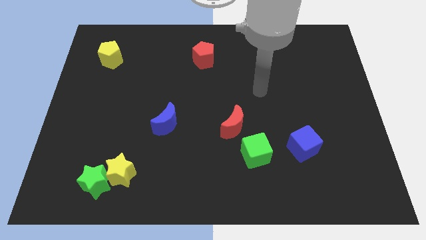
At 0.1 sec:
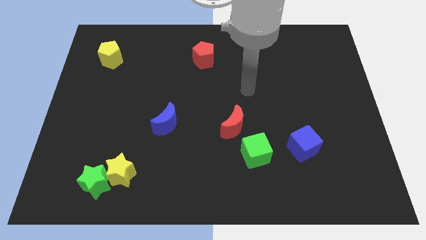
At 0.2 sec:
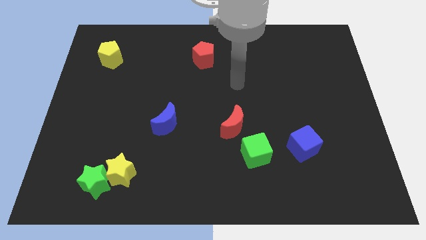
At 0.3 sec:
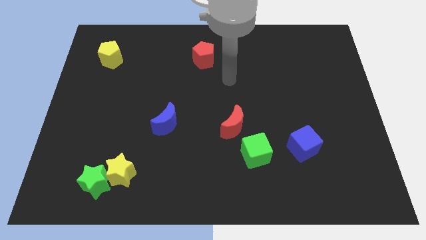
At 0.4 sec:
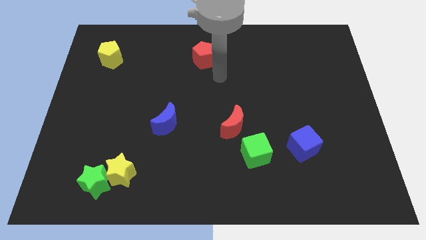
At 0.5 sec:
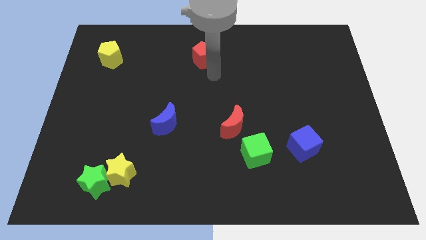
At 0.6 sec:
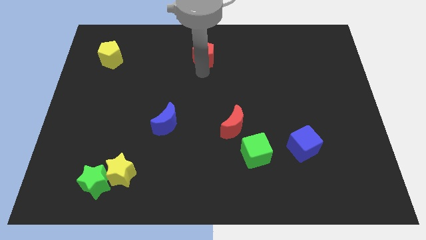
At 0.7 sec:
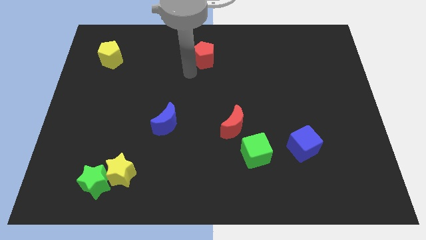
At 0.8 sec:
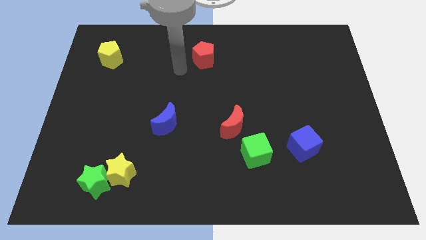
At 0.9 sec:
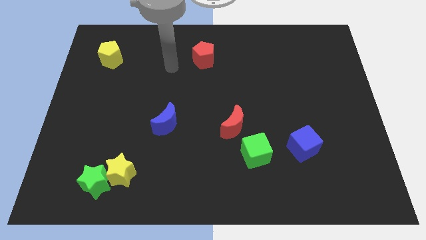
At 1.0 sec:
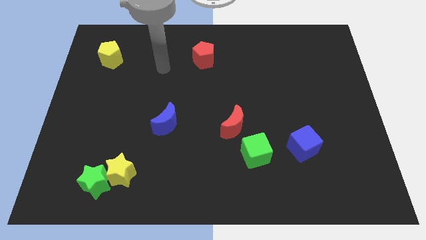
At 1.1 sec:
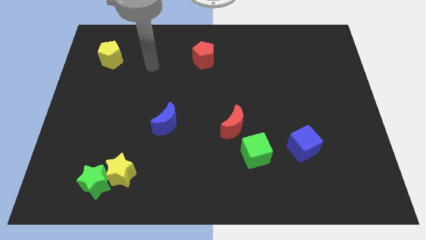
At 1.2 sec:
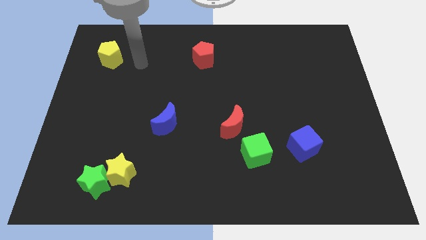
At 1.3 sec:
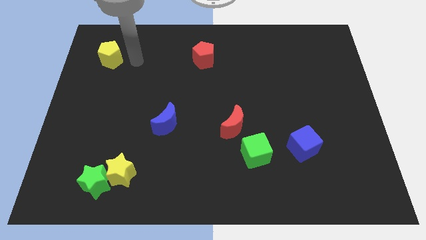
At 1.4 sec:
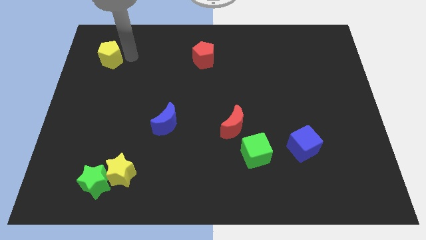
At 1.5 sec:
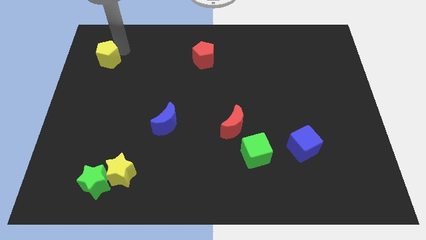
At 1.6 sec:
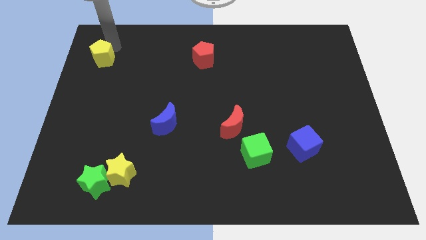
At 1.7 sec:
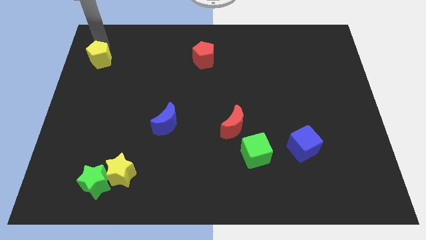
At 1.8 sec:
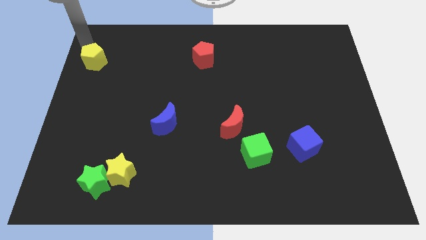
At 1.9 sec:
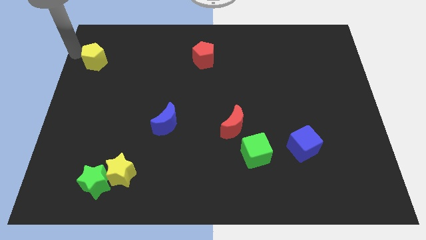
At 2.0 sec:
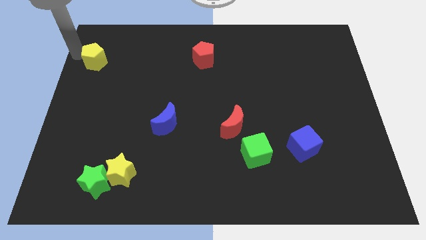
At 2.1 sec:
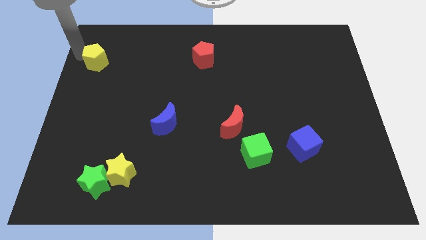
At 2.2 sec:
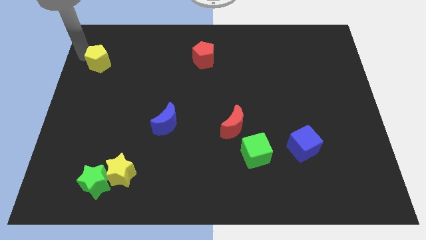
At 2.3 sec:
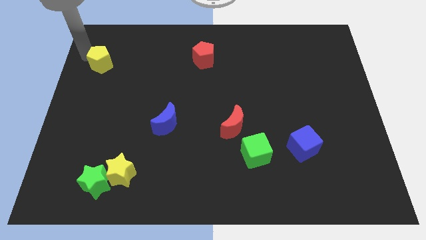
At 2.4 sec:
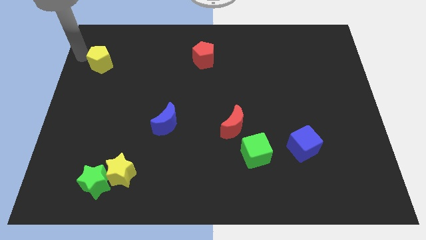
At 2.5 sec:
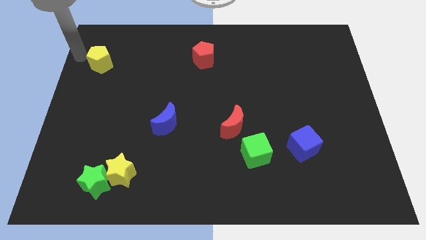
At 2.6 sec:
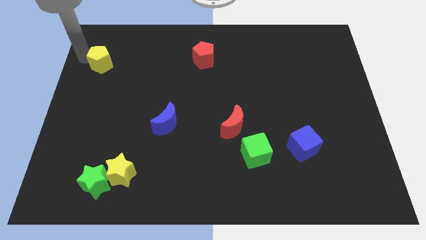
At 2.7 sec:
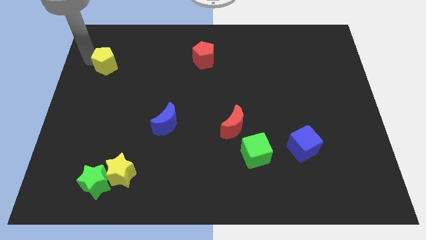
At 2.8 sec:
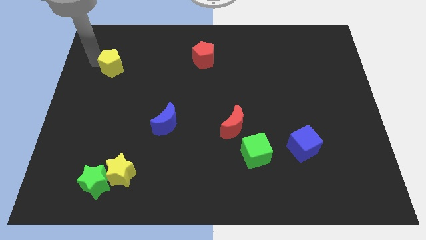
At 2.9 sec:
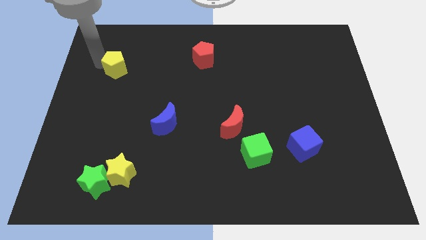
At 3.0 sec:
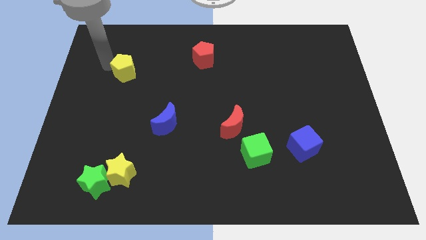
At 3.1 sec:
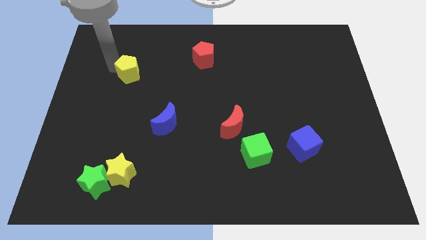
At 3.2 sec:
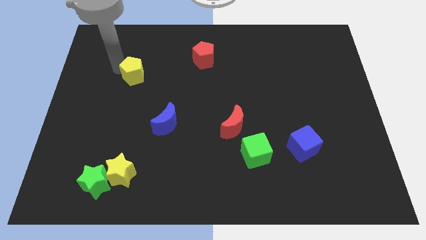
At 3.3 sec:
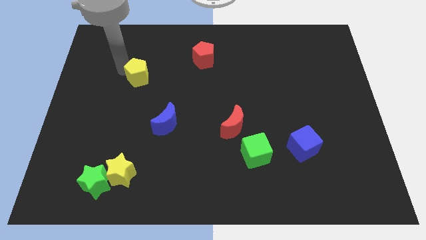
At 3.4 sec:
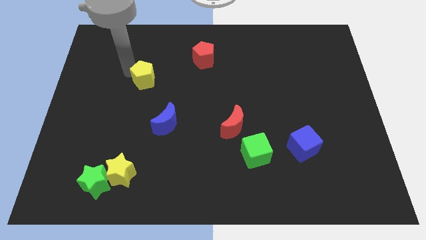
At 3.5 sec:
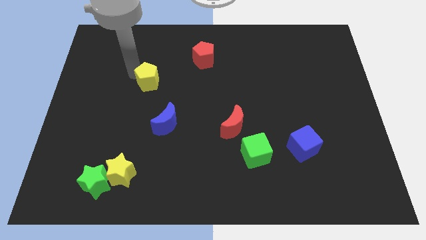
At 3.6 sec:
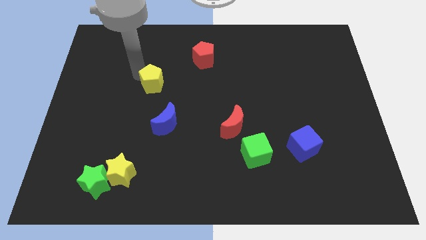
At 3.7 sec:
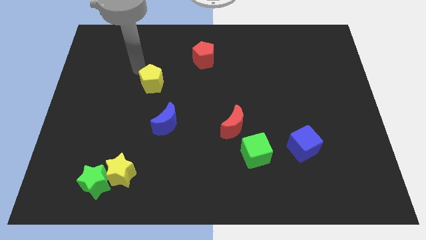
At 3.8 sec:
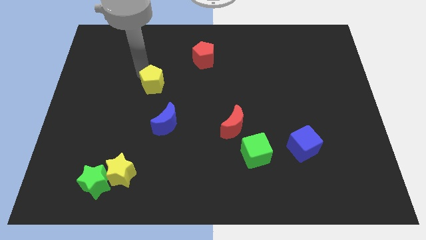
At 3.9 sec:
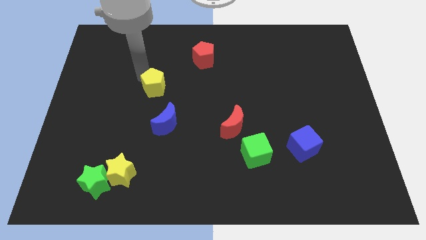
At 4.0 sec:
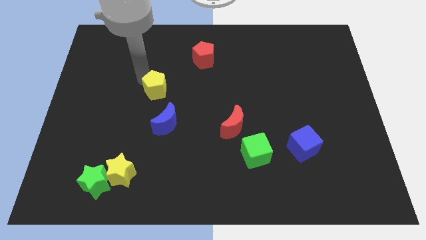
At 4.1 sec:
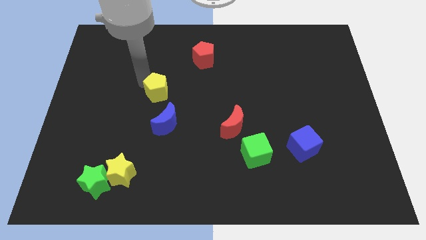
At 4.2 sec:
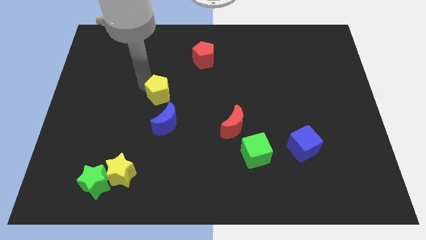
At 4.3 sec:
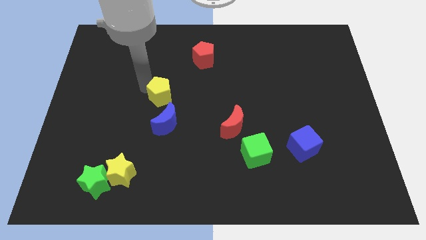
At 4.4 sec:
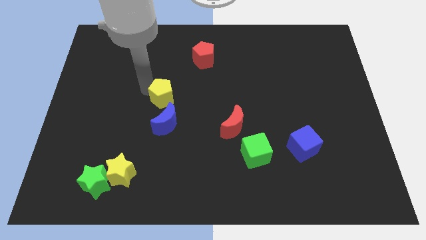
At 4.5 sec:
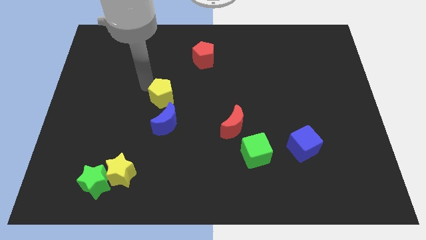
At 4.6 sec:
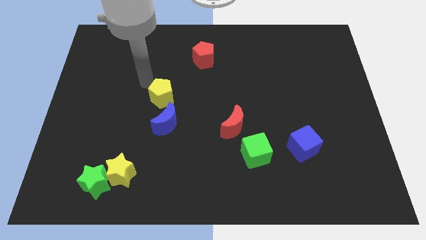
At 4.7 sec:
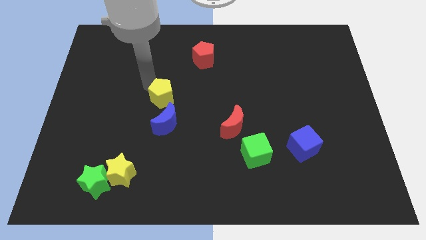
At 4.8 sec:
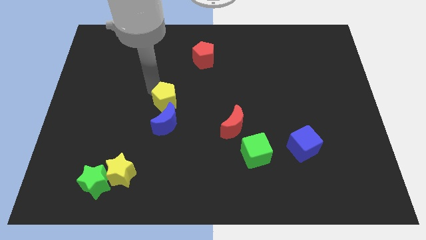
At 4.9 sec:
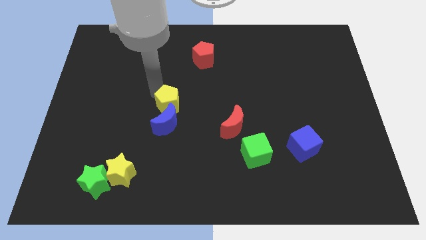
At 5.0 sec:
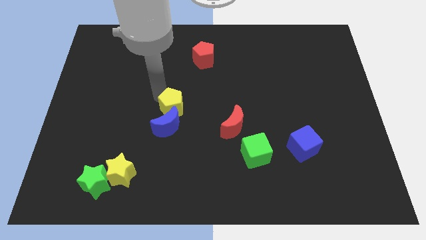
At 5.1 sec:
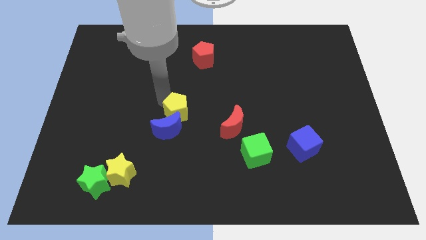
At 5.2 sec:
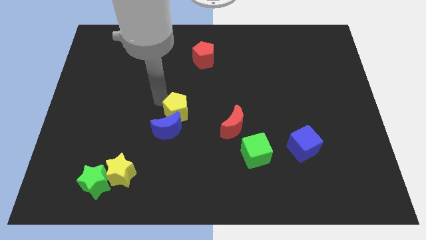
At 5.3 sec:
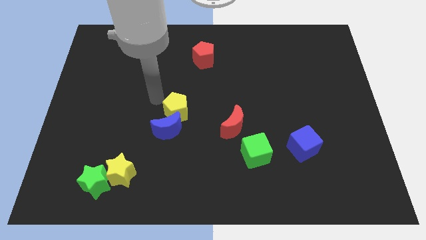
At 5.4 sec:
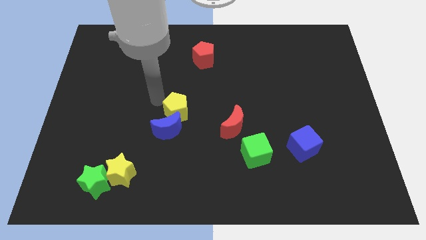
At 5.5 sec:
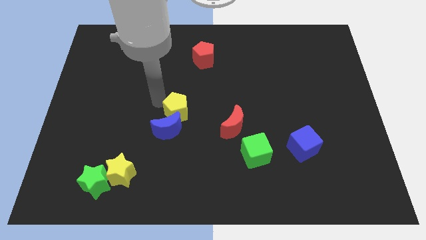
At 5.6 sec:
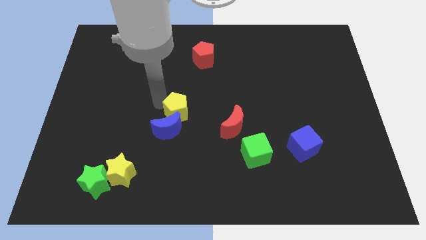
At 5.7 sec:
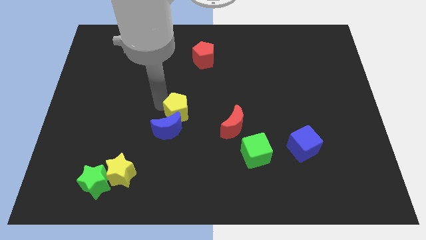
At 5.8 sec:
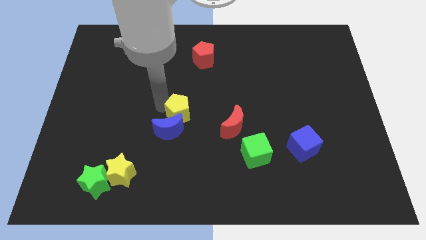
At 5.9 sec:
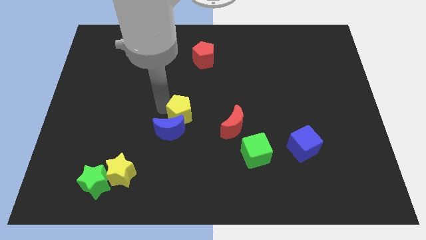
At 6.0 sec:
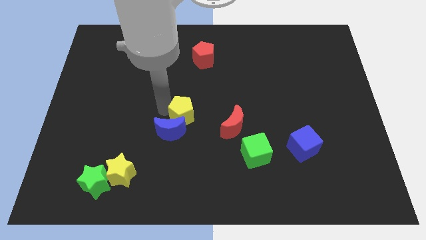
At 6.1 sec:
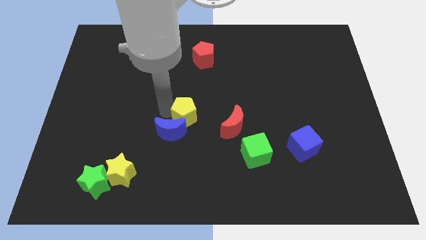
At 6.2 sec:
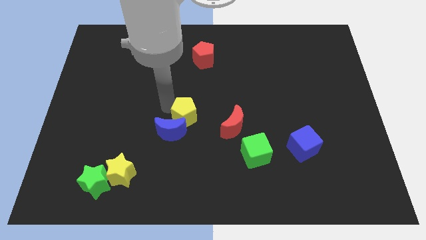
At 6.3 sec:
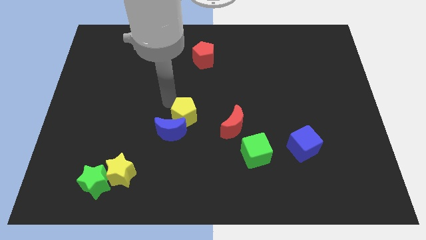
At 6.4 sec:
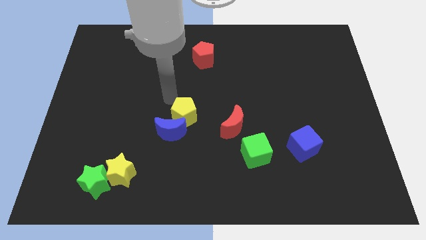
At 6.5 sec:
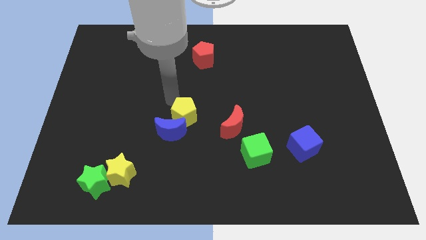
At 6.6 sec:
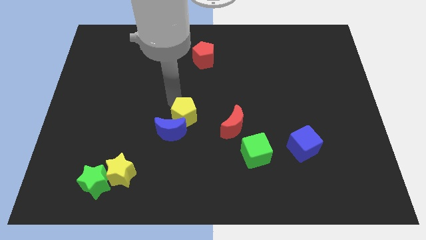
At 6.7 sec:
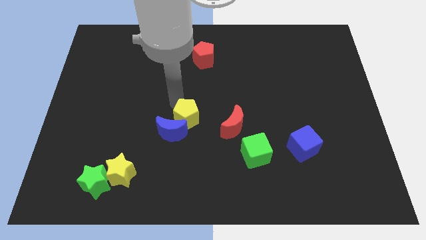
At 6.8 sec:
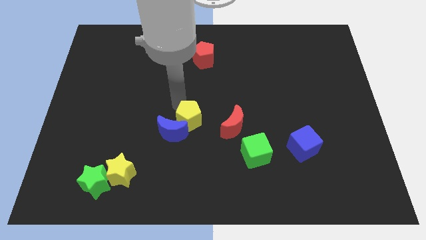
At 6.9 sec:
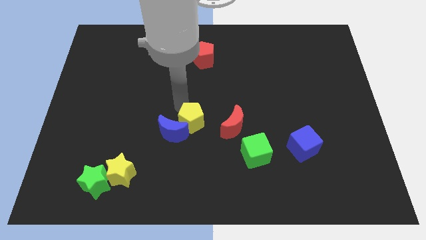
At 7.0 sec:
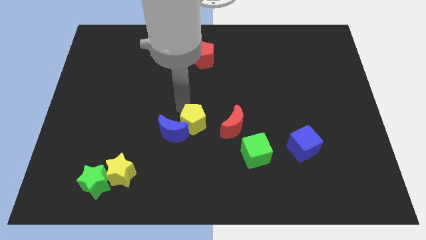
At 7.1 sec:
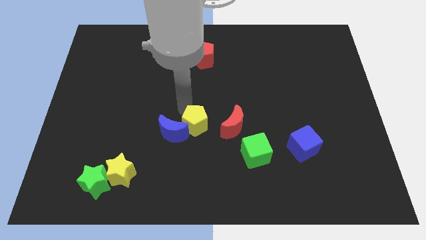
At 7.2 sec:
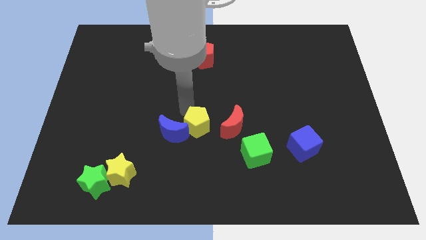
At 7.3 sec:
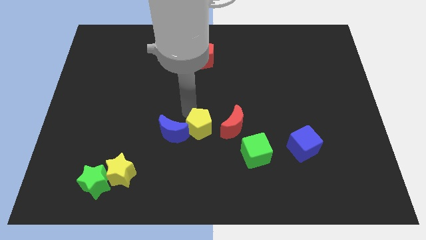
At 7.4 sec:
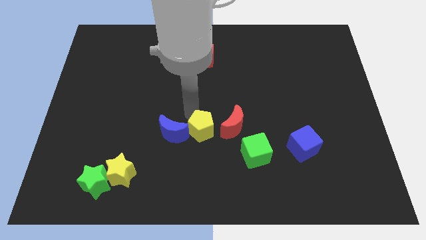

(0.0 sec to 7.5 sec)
push the yellow pentagon diagonally down and to the left of the red moon
